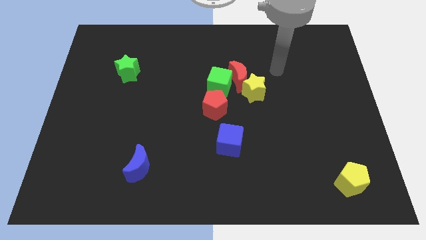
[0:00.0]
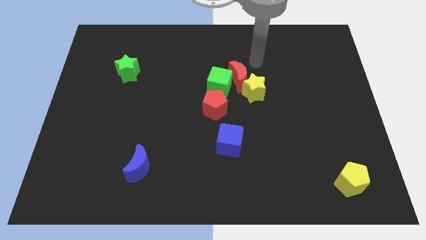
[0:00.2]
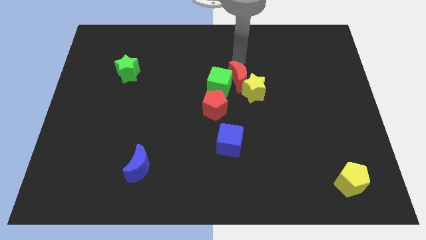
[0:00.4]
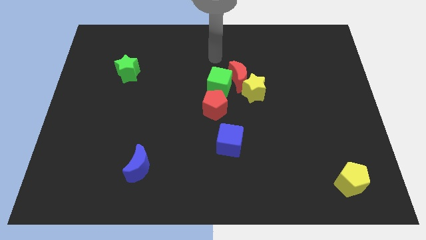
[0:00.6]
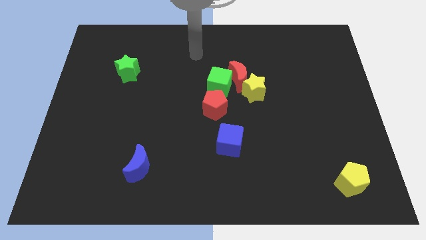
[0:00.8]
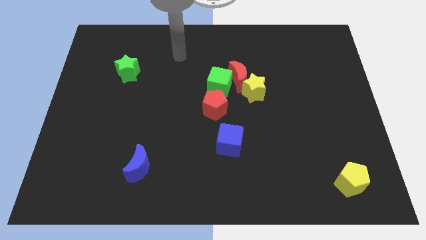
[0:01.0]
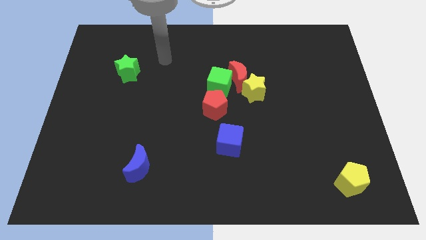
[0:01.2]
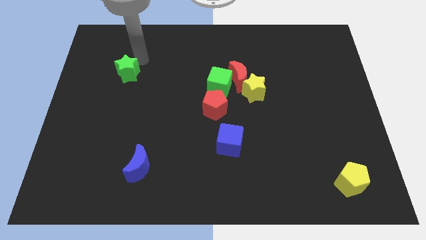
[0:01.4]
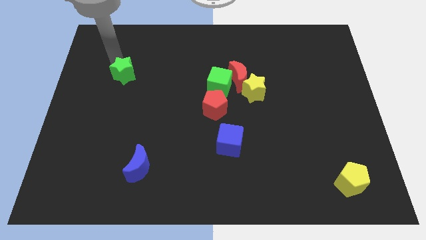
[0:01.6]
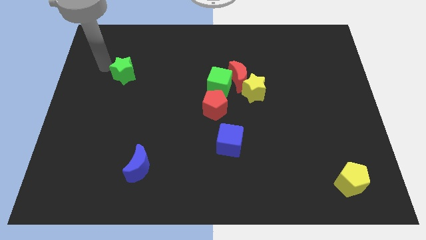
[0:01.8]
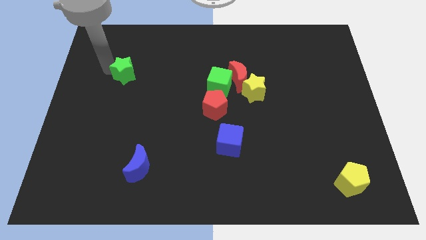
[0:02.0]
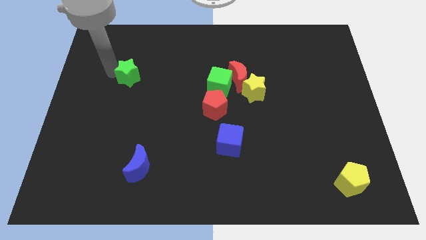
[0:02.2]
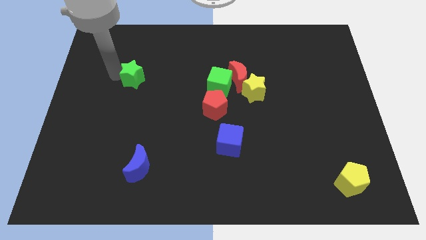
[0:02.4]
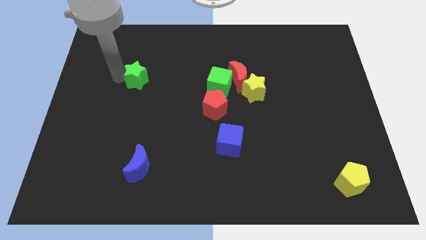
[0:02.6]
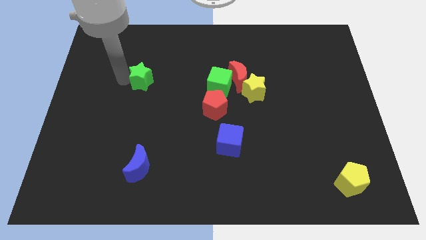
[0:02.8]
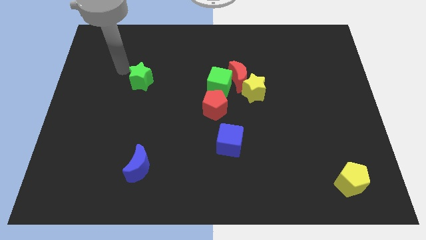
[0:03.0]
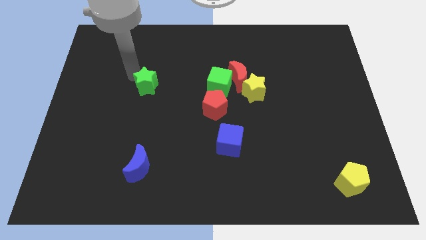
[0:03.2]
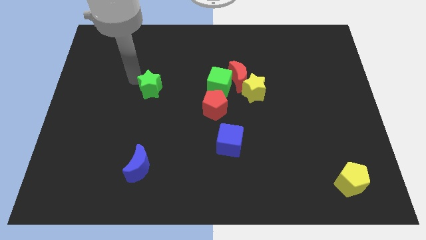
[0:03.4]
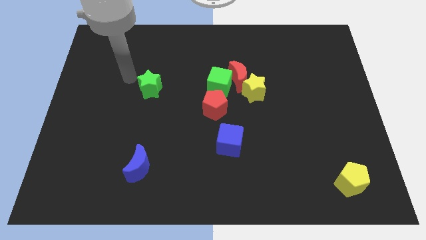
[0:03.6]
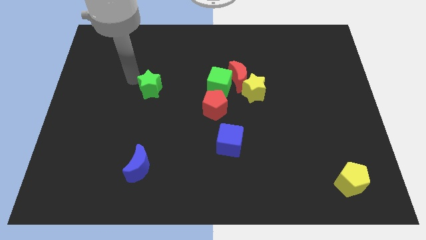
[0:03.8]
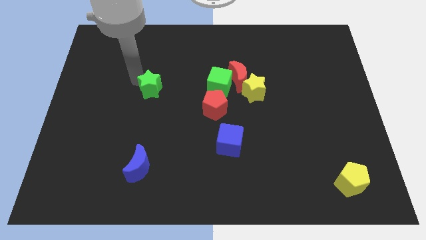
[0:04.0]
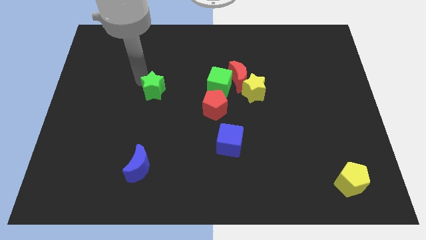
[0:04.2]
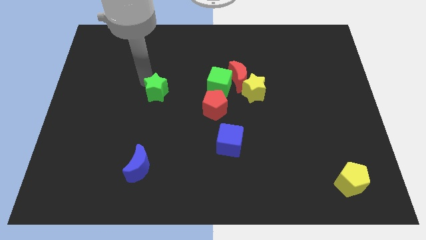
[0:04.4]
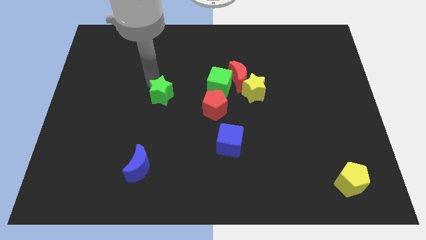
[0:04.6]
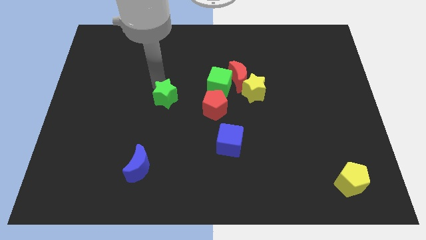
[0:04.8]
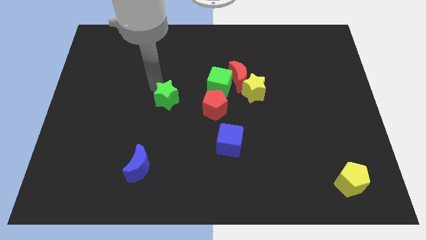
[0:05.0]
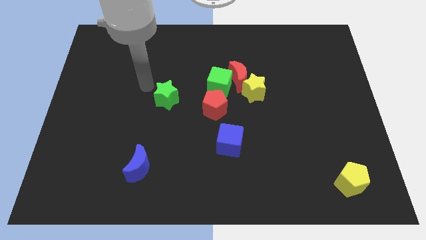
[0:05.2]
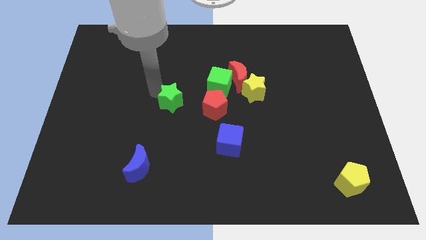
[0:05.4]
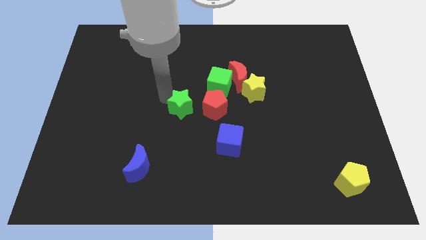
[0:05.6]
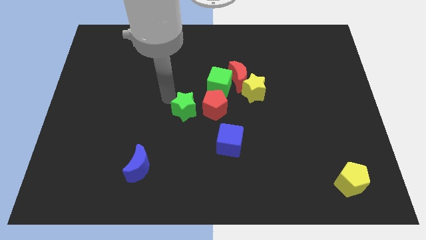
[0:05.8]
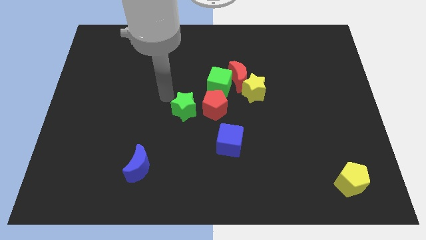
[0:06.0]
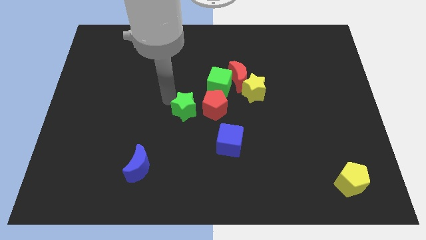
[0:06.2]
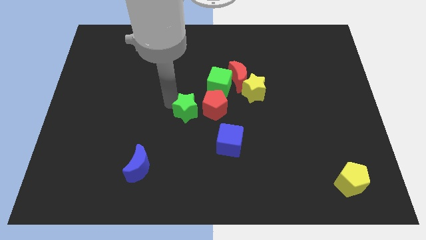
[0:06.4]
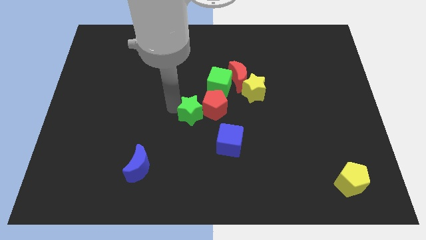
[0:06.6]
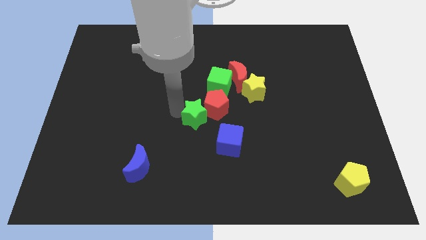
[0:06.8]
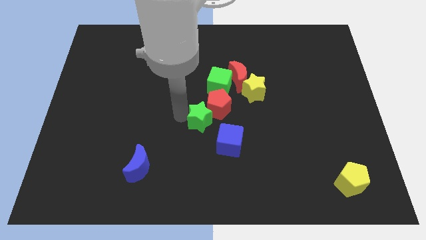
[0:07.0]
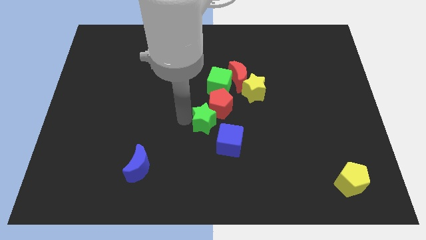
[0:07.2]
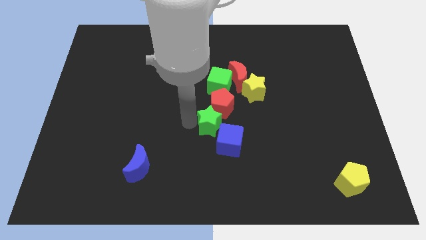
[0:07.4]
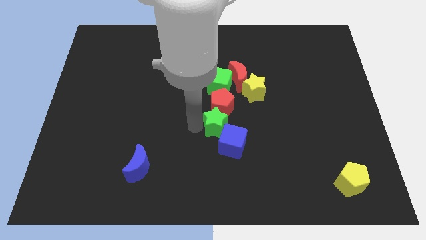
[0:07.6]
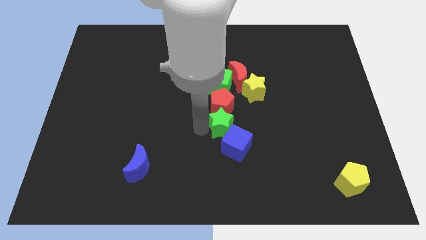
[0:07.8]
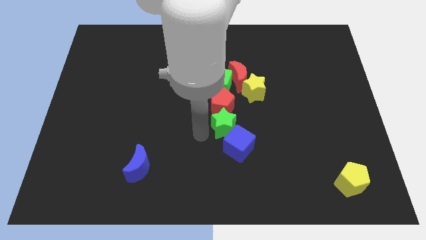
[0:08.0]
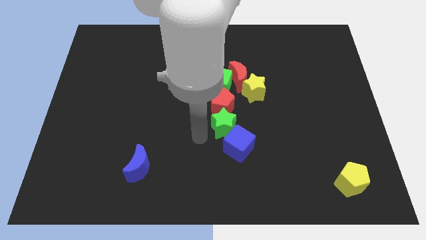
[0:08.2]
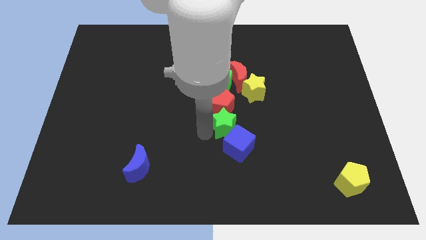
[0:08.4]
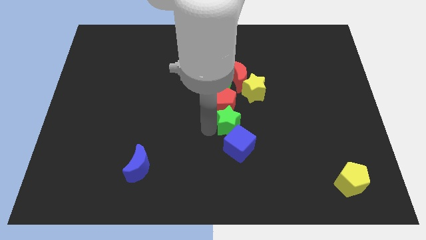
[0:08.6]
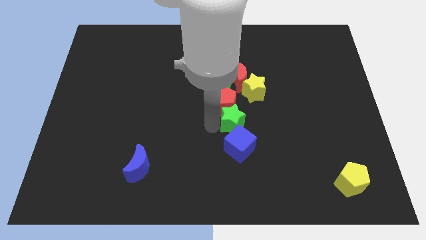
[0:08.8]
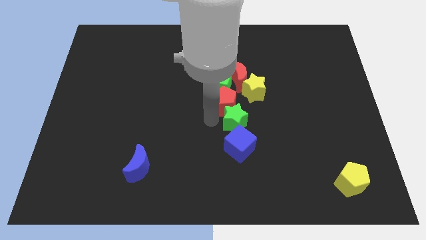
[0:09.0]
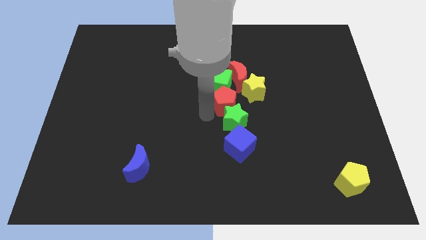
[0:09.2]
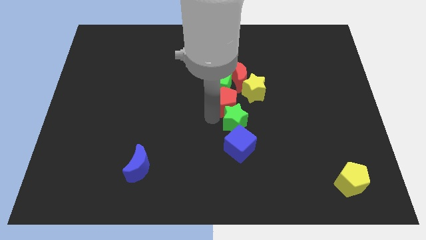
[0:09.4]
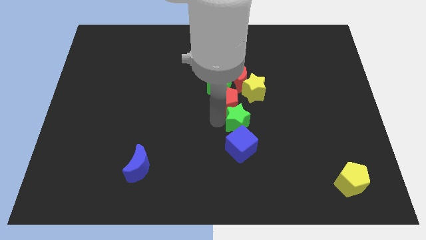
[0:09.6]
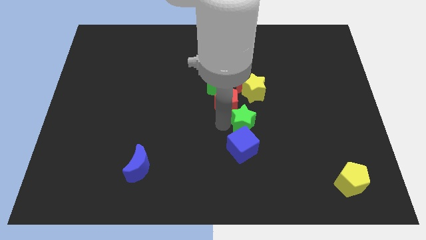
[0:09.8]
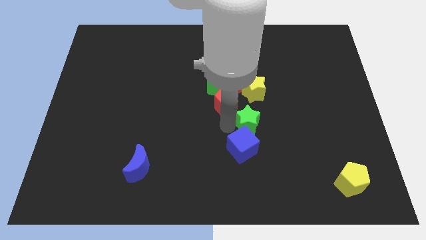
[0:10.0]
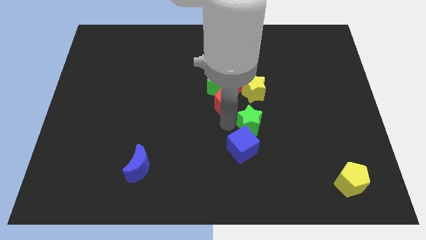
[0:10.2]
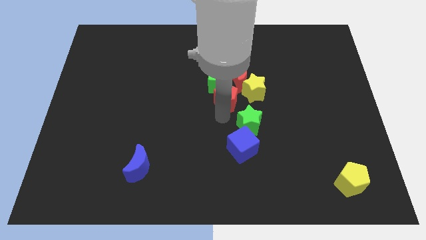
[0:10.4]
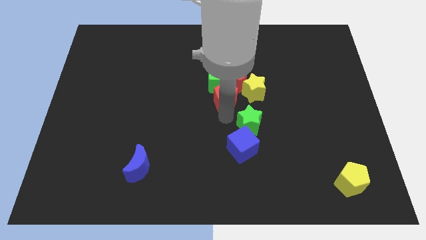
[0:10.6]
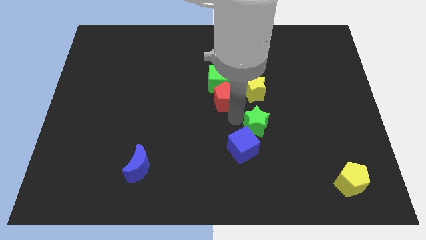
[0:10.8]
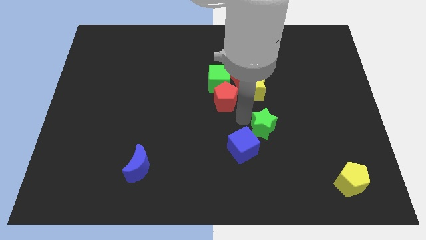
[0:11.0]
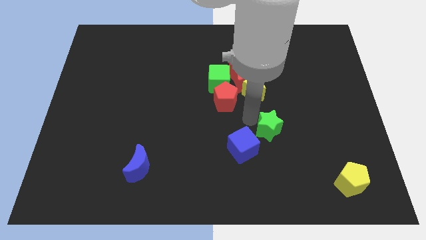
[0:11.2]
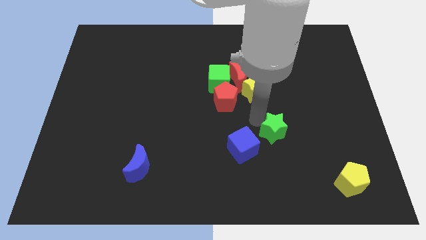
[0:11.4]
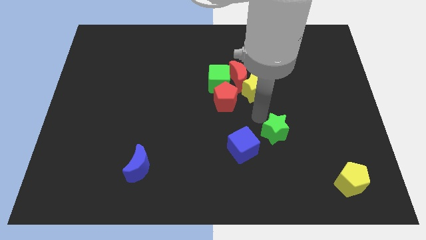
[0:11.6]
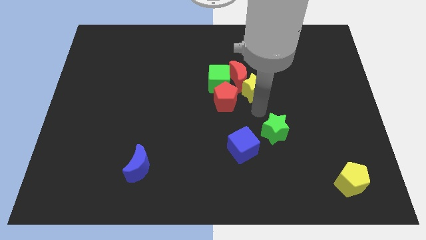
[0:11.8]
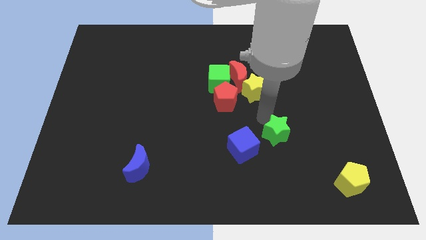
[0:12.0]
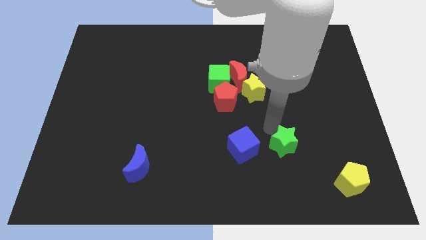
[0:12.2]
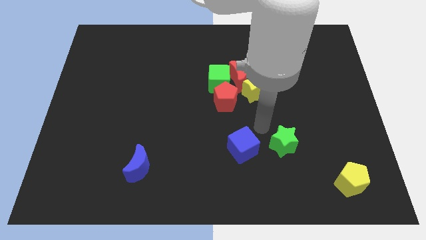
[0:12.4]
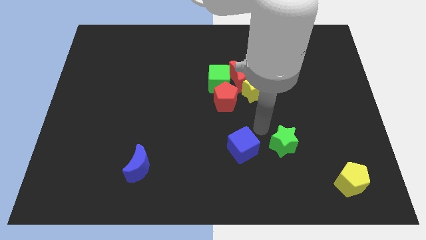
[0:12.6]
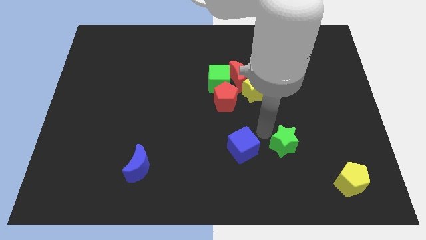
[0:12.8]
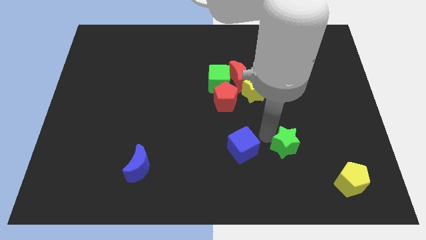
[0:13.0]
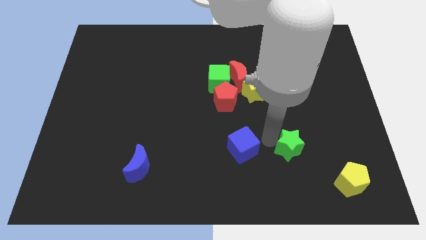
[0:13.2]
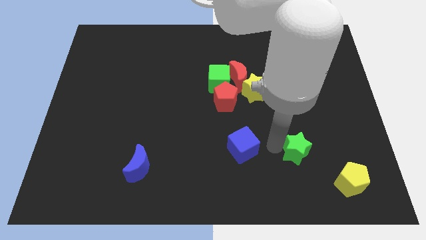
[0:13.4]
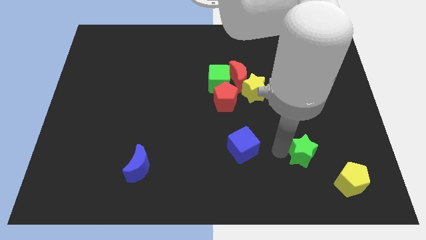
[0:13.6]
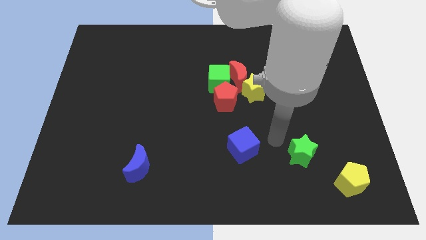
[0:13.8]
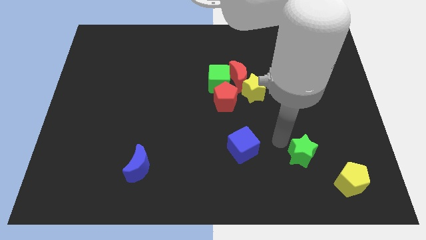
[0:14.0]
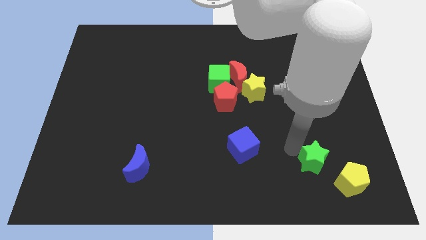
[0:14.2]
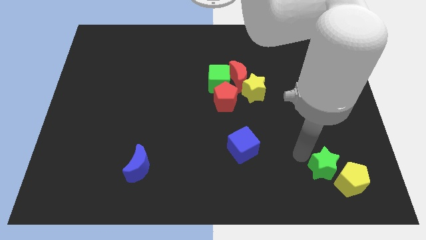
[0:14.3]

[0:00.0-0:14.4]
slide the green star next to the yellow pentagon

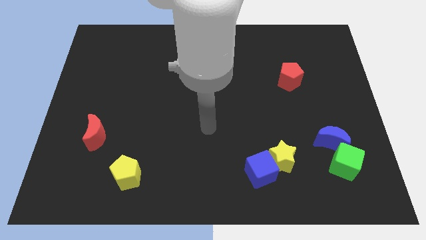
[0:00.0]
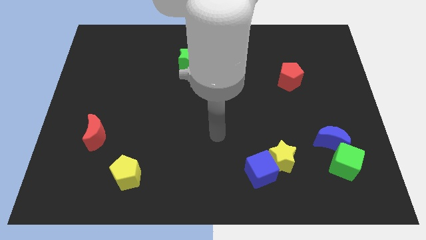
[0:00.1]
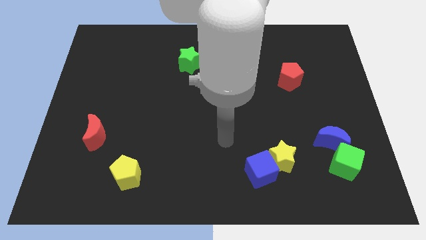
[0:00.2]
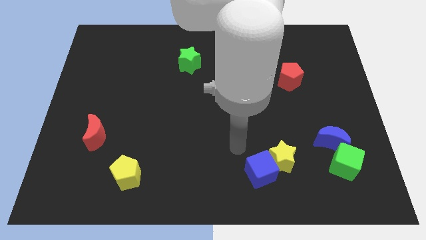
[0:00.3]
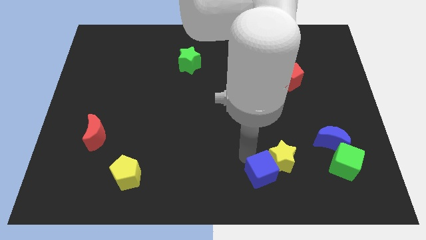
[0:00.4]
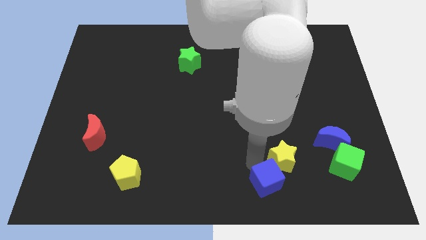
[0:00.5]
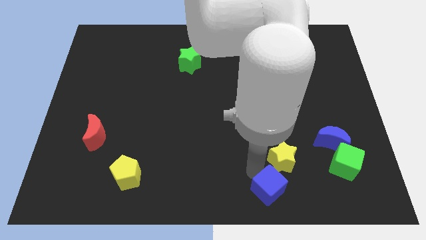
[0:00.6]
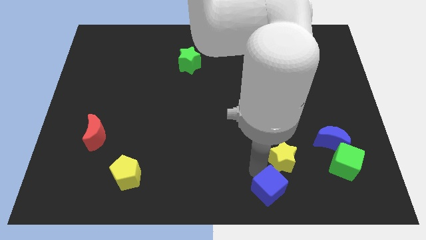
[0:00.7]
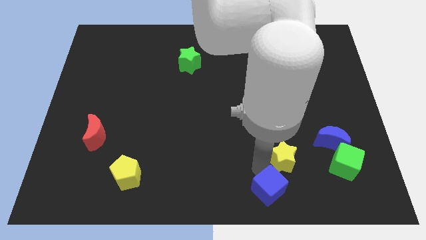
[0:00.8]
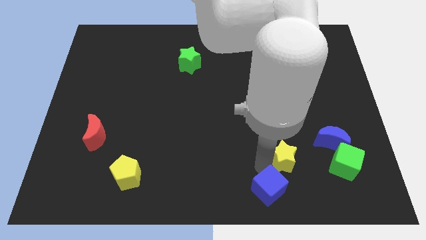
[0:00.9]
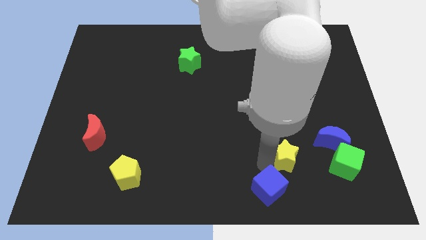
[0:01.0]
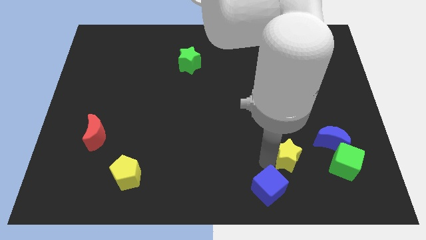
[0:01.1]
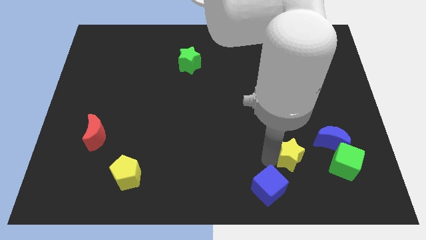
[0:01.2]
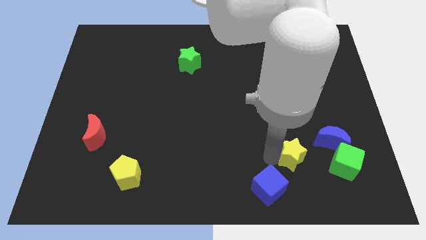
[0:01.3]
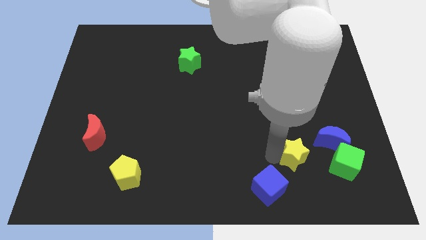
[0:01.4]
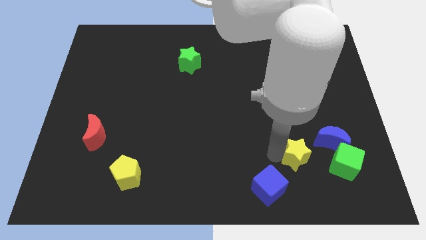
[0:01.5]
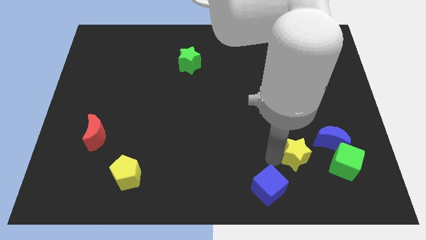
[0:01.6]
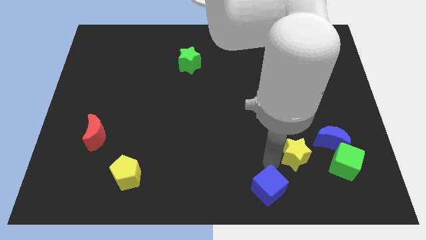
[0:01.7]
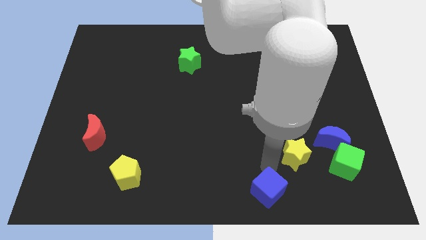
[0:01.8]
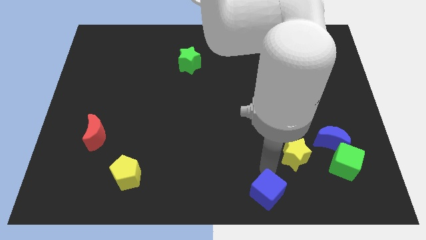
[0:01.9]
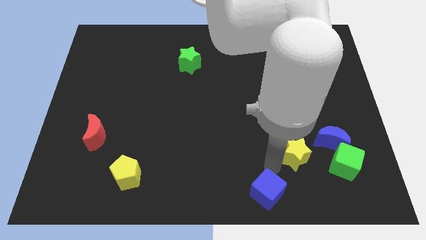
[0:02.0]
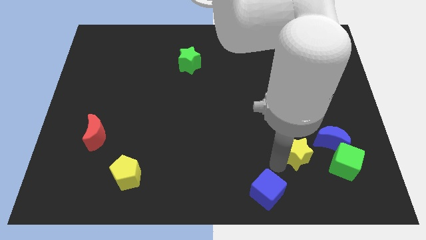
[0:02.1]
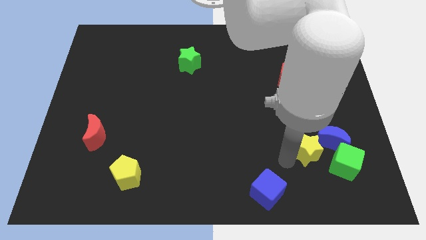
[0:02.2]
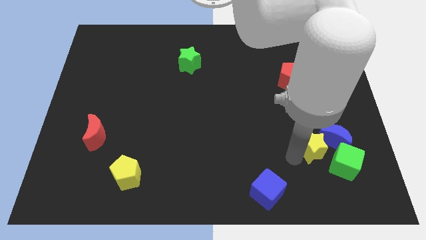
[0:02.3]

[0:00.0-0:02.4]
slide the yellow star towards the blue moon
